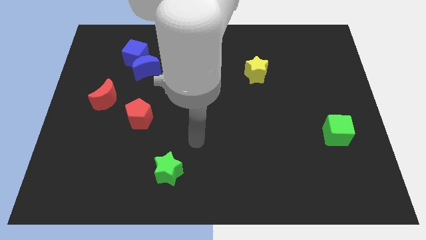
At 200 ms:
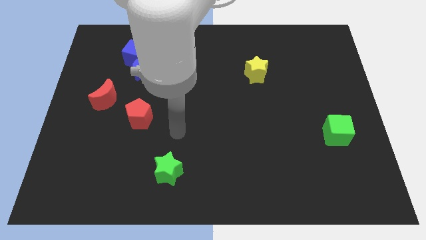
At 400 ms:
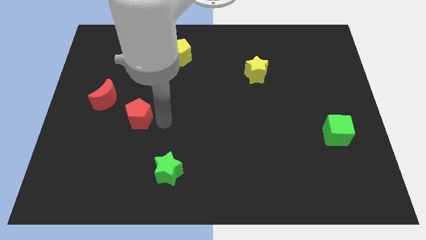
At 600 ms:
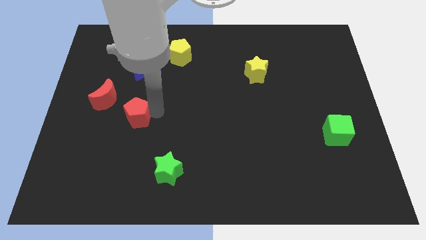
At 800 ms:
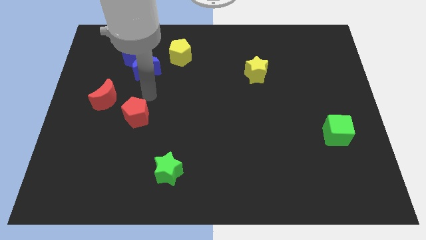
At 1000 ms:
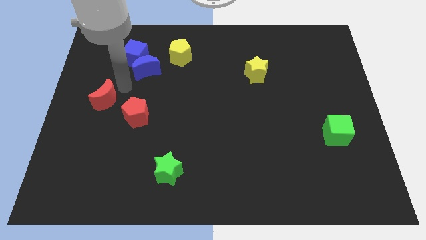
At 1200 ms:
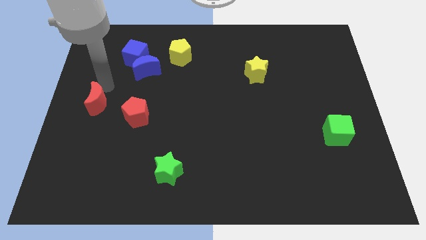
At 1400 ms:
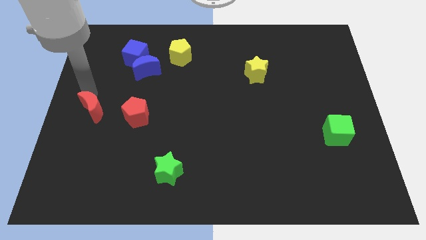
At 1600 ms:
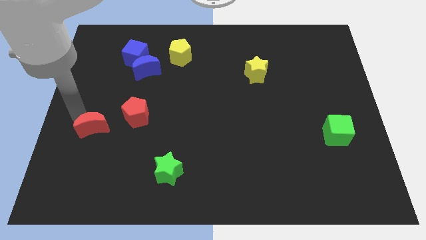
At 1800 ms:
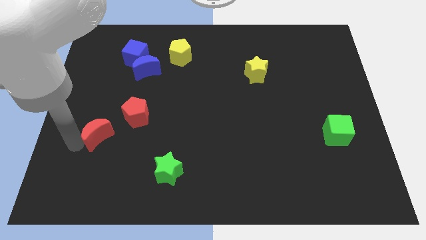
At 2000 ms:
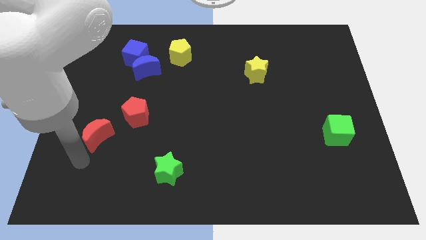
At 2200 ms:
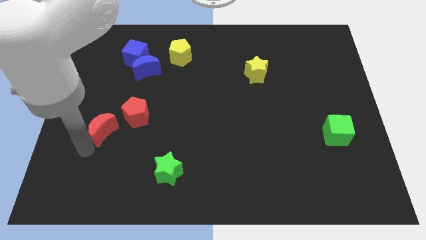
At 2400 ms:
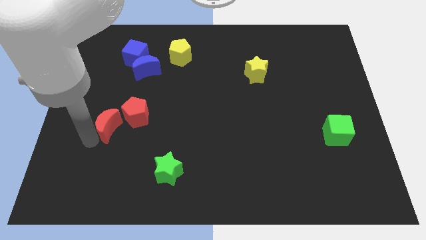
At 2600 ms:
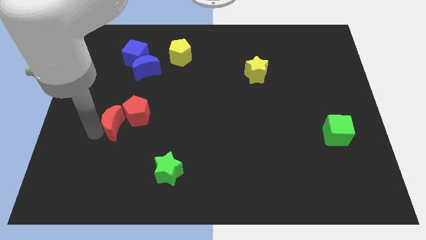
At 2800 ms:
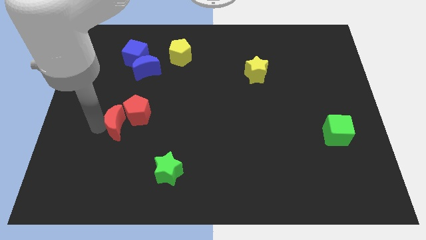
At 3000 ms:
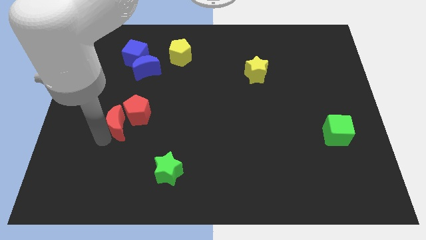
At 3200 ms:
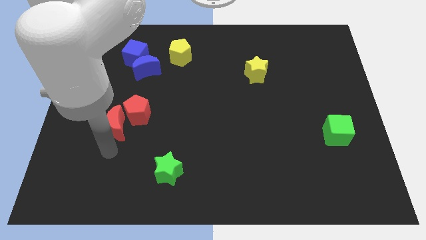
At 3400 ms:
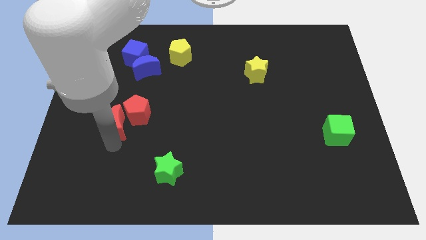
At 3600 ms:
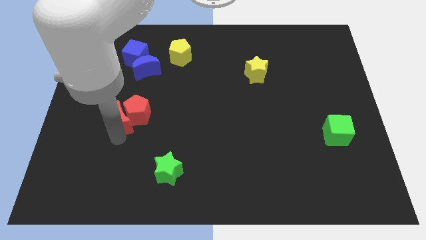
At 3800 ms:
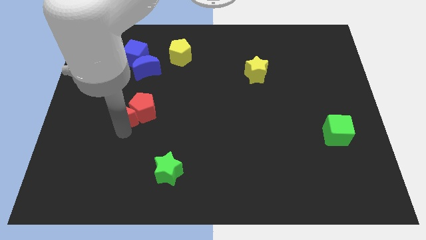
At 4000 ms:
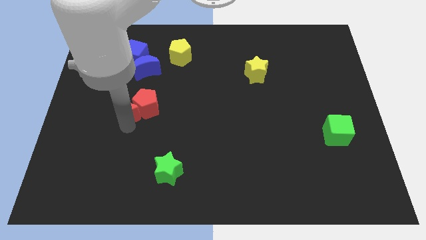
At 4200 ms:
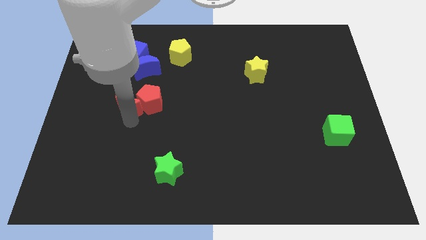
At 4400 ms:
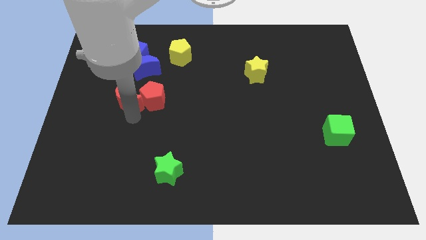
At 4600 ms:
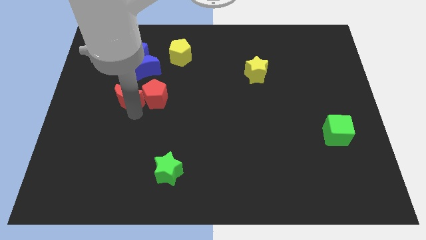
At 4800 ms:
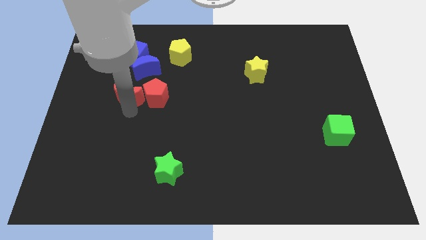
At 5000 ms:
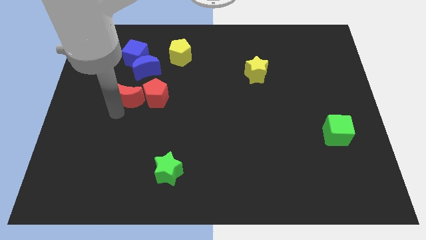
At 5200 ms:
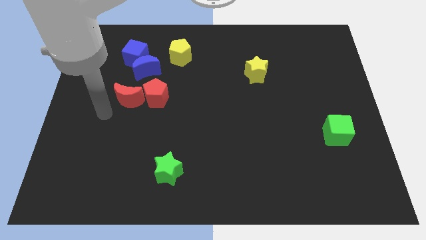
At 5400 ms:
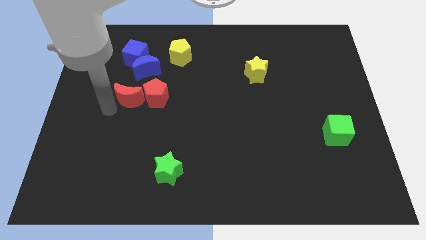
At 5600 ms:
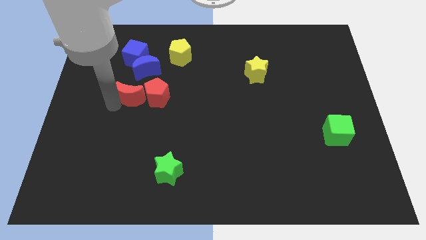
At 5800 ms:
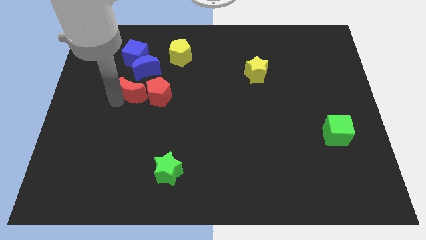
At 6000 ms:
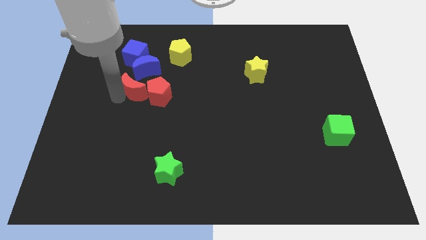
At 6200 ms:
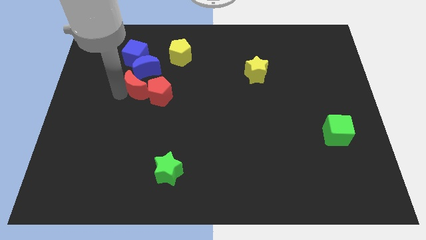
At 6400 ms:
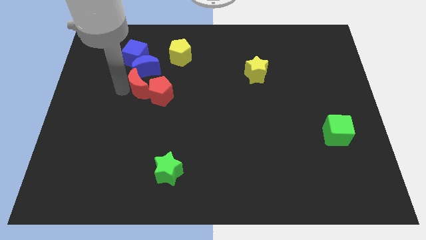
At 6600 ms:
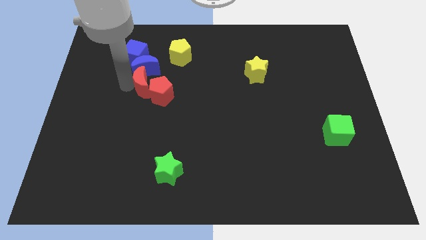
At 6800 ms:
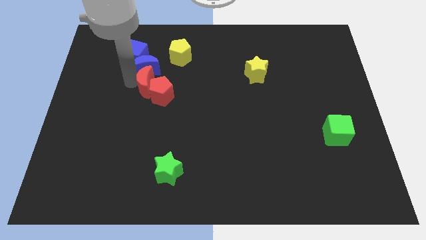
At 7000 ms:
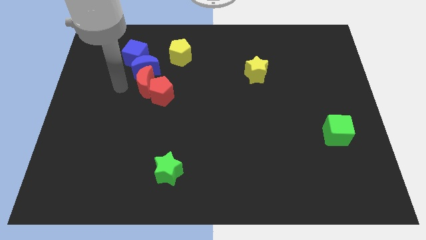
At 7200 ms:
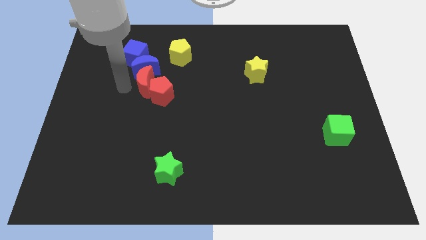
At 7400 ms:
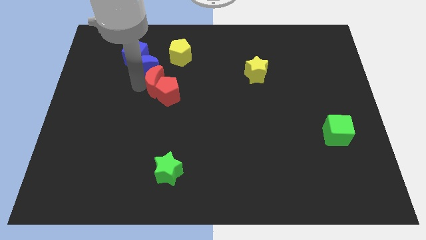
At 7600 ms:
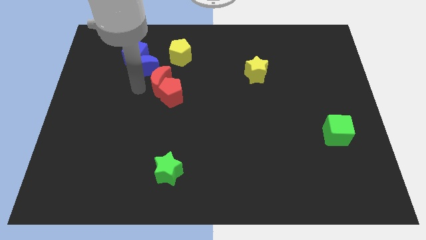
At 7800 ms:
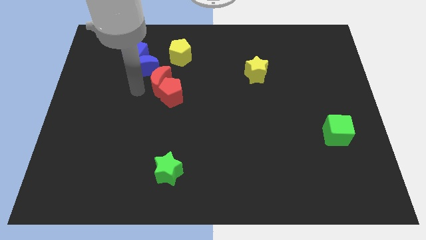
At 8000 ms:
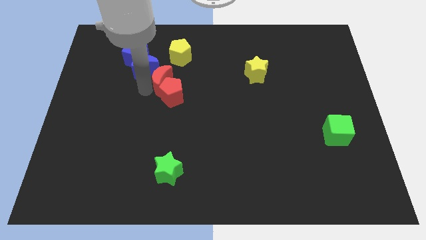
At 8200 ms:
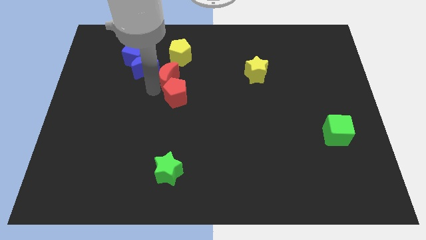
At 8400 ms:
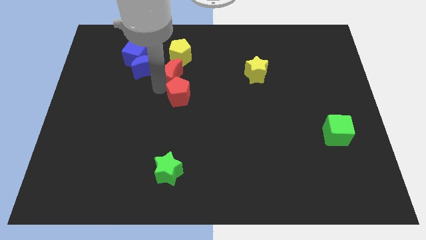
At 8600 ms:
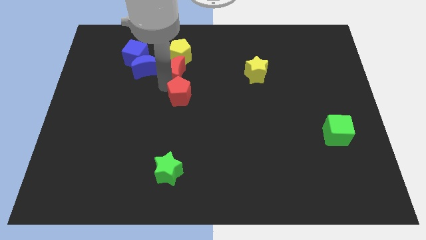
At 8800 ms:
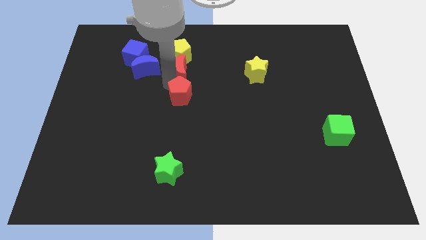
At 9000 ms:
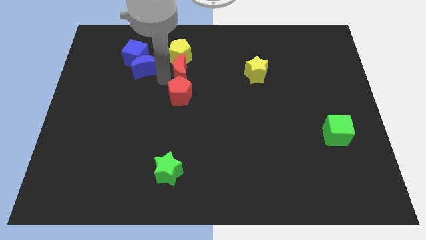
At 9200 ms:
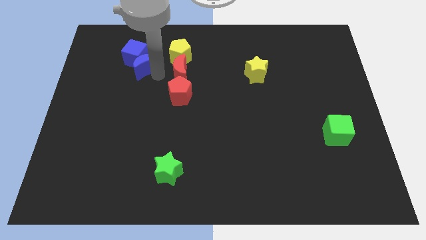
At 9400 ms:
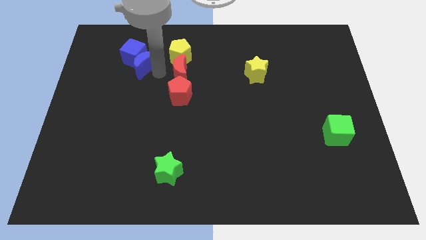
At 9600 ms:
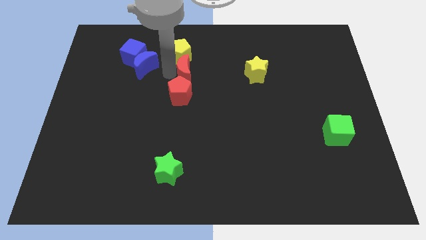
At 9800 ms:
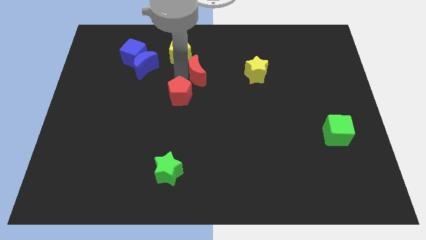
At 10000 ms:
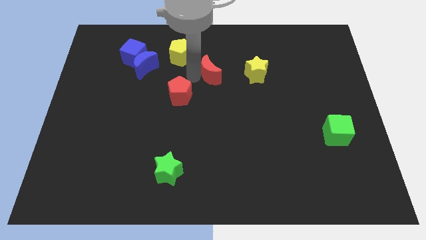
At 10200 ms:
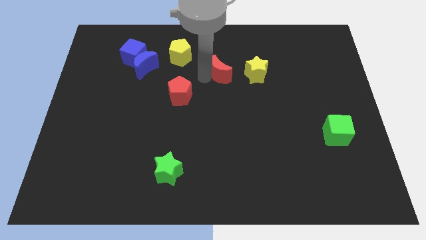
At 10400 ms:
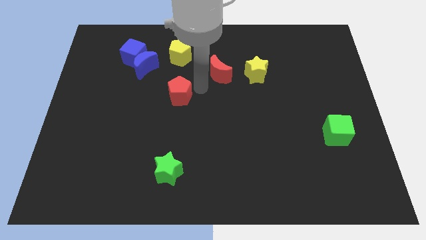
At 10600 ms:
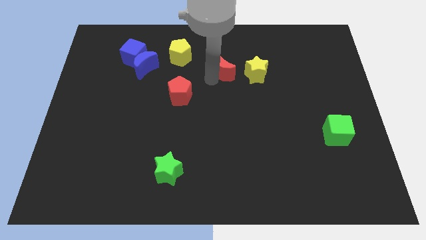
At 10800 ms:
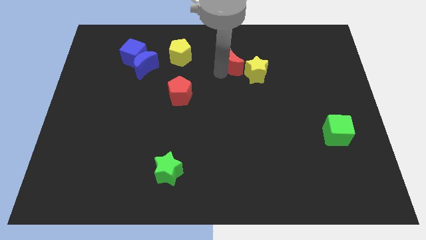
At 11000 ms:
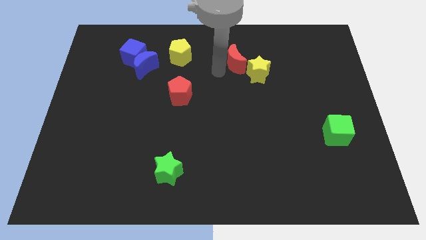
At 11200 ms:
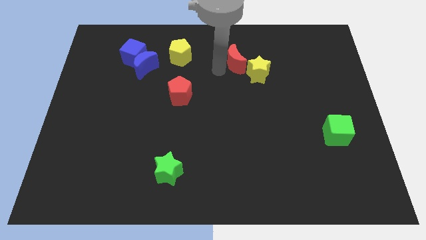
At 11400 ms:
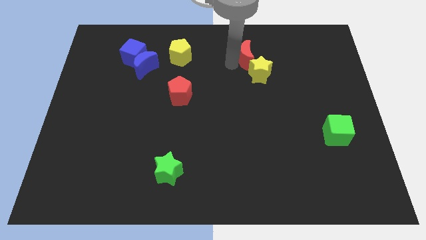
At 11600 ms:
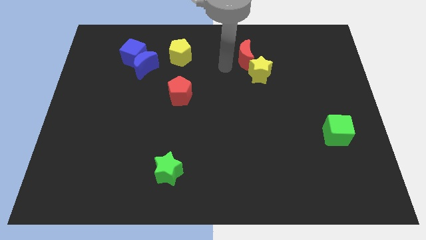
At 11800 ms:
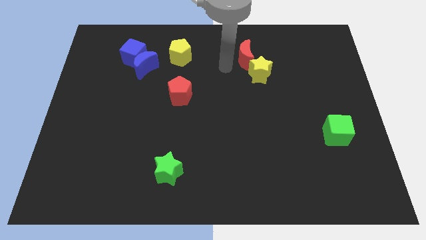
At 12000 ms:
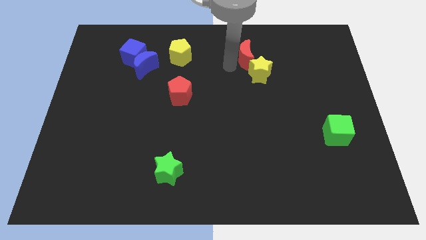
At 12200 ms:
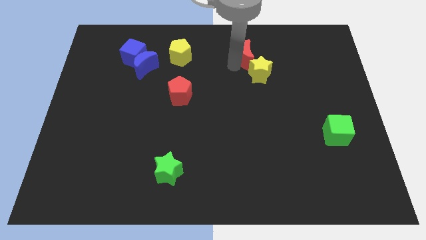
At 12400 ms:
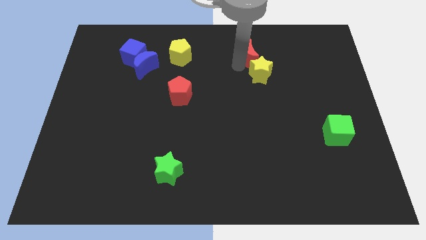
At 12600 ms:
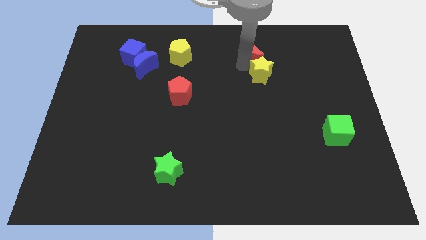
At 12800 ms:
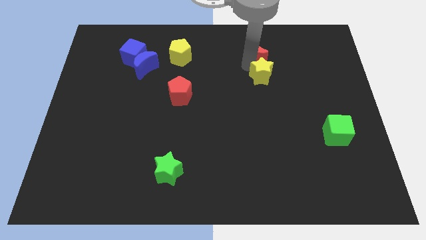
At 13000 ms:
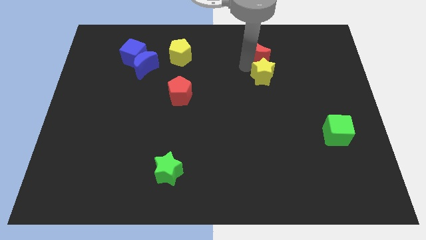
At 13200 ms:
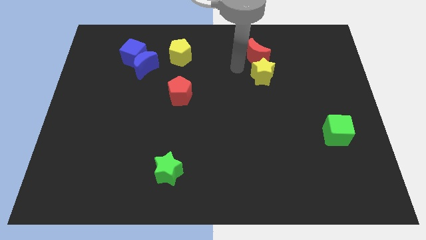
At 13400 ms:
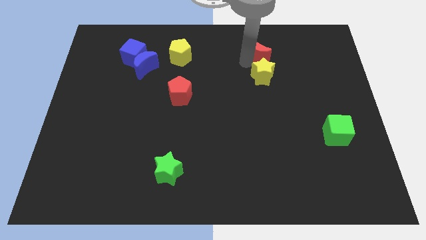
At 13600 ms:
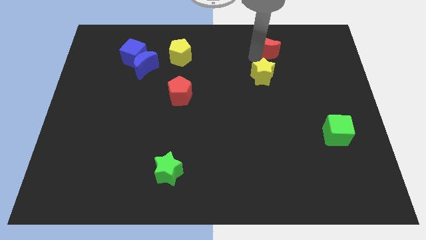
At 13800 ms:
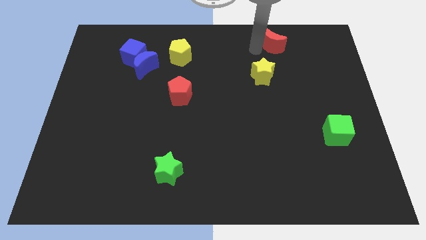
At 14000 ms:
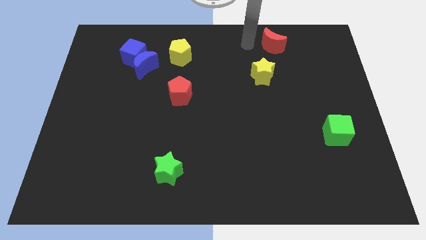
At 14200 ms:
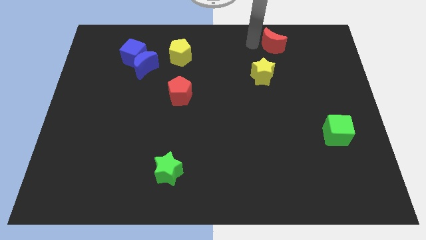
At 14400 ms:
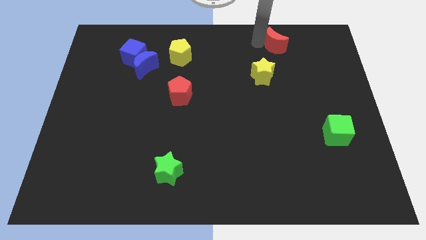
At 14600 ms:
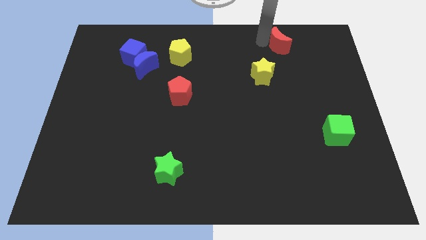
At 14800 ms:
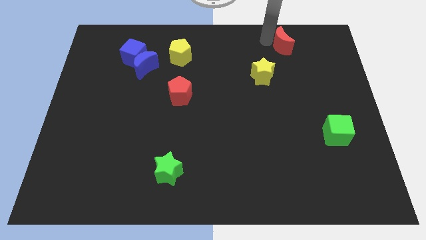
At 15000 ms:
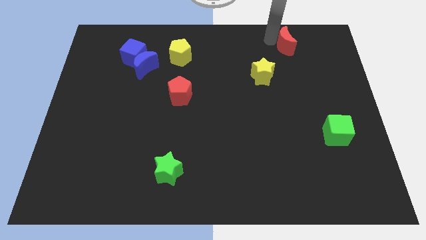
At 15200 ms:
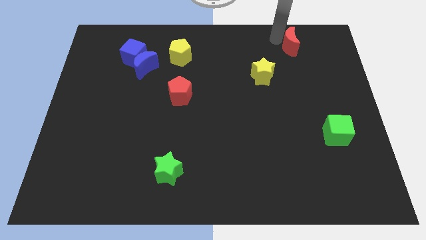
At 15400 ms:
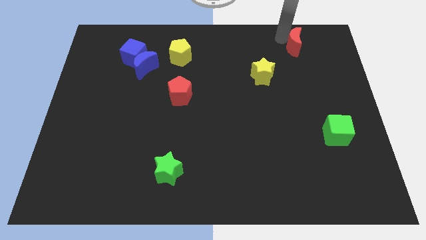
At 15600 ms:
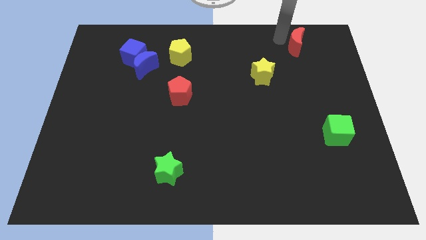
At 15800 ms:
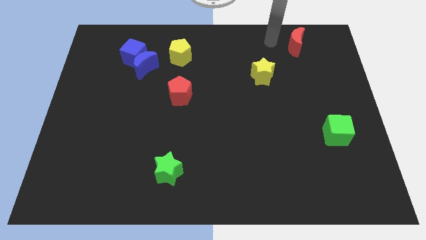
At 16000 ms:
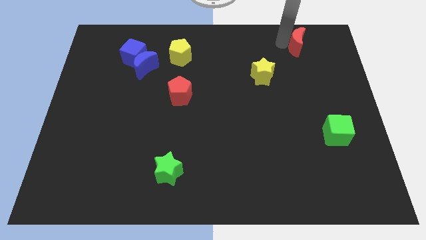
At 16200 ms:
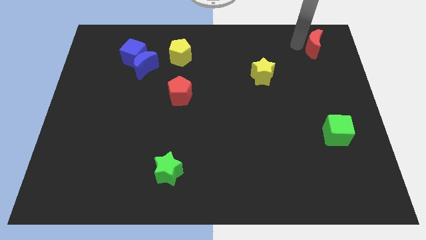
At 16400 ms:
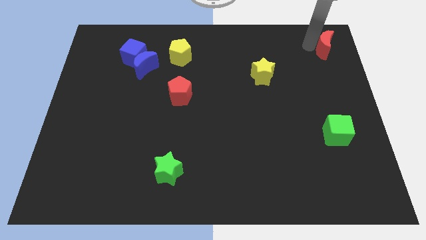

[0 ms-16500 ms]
move the red moon to the top right
